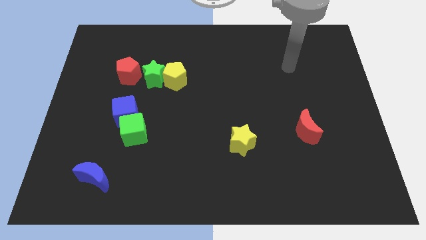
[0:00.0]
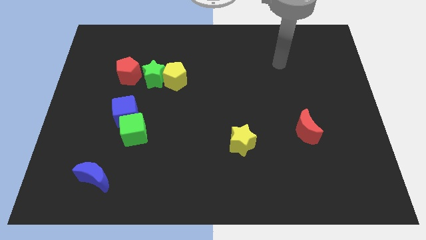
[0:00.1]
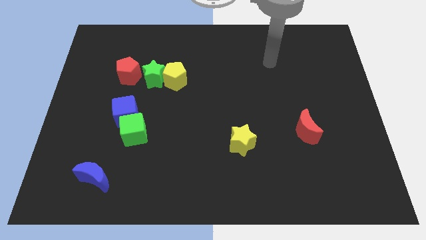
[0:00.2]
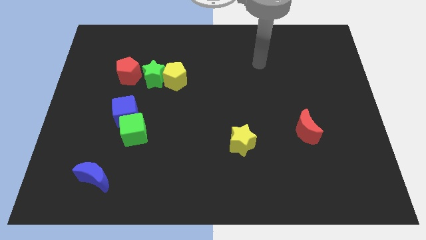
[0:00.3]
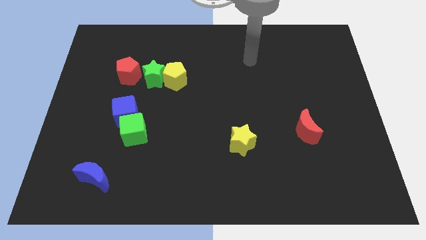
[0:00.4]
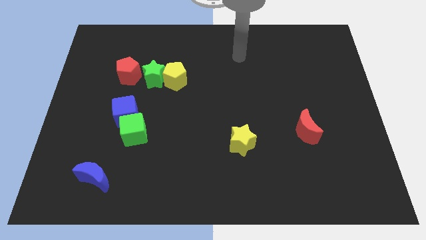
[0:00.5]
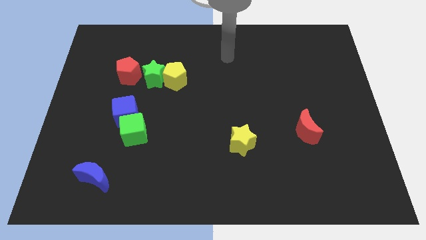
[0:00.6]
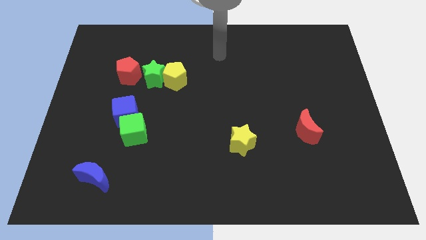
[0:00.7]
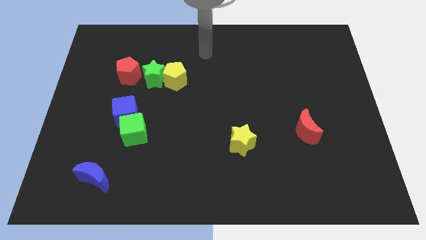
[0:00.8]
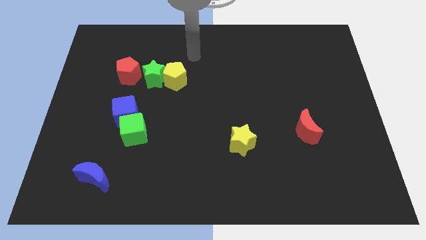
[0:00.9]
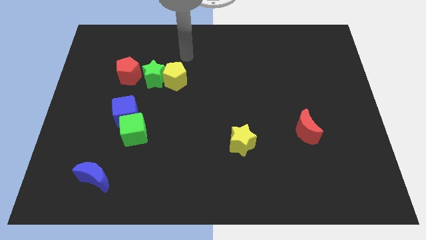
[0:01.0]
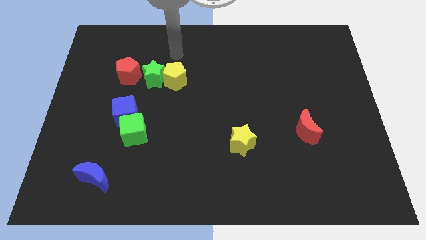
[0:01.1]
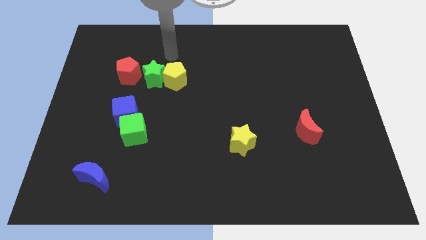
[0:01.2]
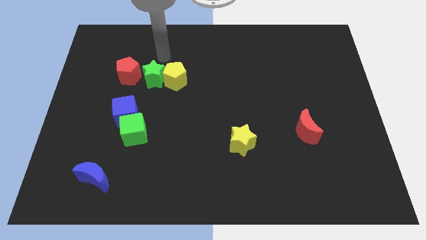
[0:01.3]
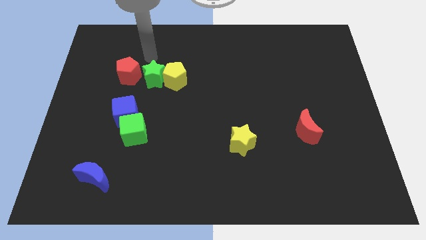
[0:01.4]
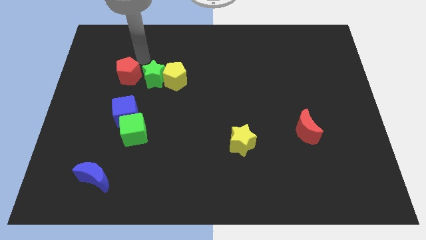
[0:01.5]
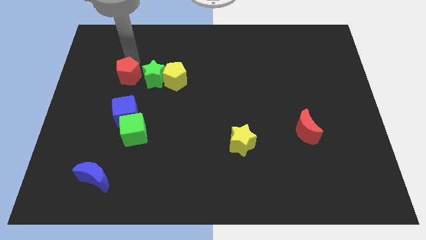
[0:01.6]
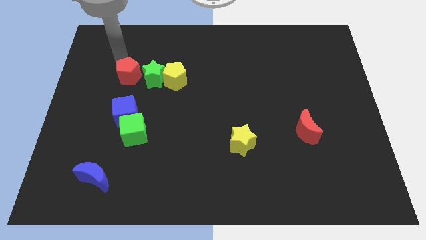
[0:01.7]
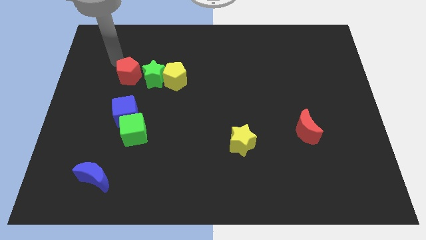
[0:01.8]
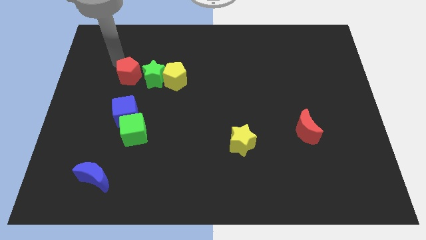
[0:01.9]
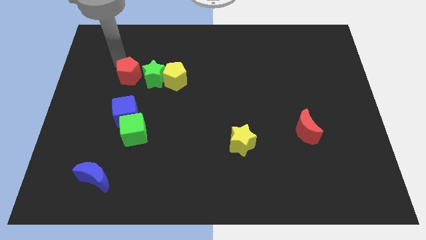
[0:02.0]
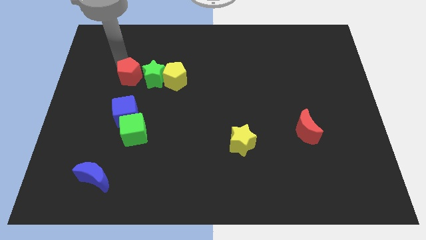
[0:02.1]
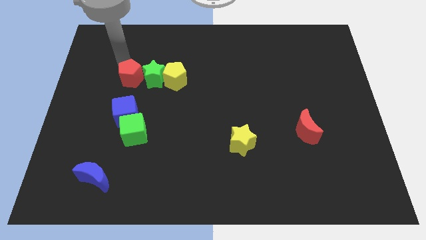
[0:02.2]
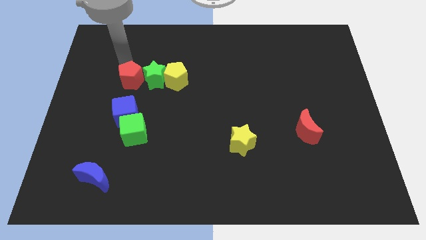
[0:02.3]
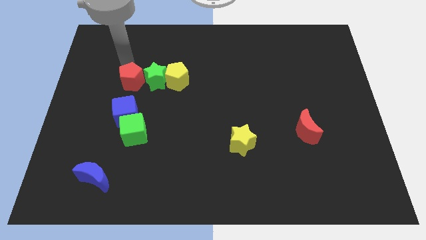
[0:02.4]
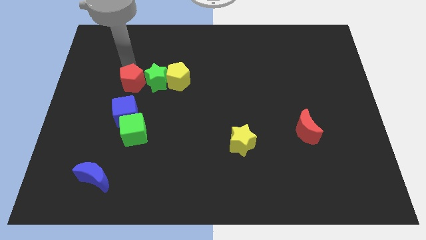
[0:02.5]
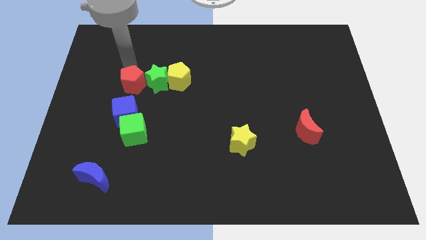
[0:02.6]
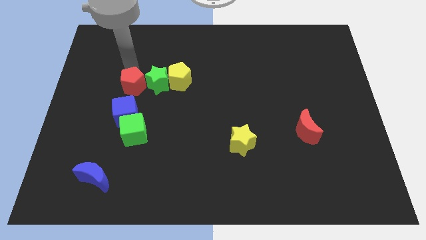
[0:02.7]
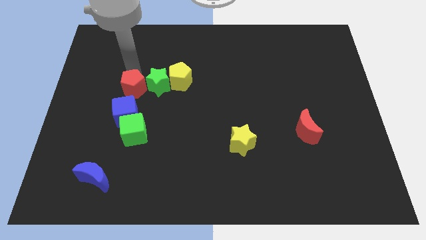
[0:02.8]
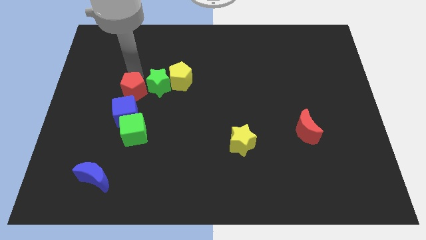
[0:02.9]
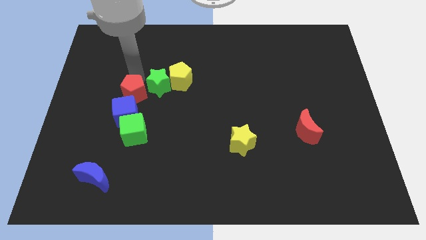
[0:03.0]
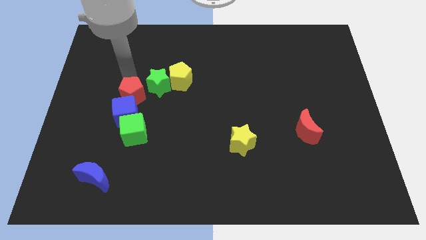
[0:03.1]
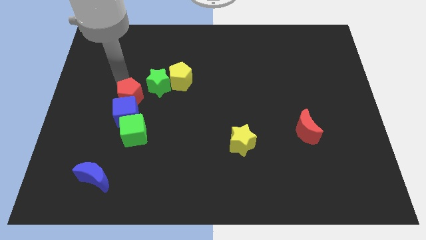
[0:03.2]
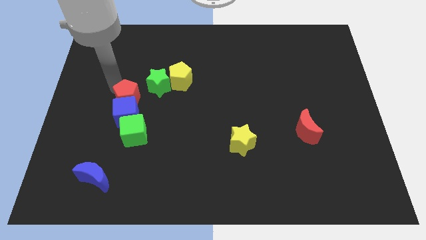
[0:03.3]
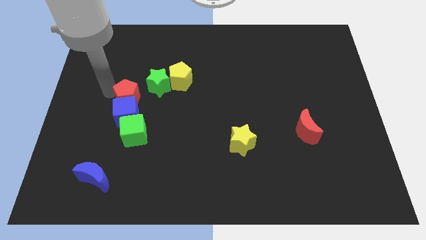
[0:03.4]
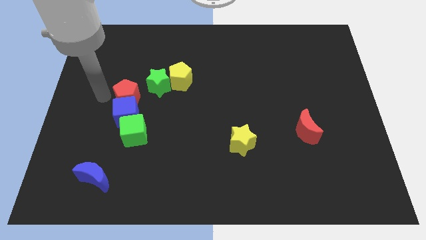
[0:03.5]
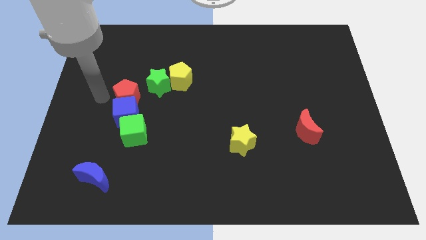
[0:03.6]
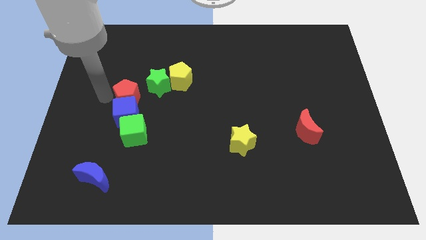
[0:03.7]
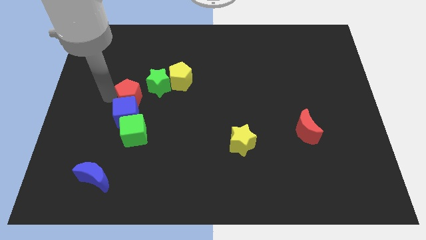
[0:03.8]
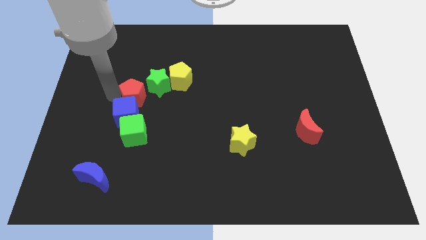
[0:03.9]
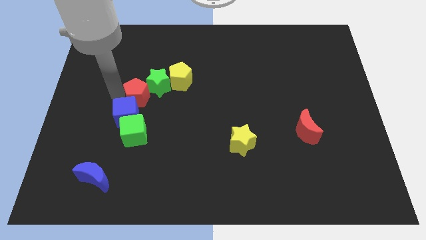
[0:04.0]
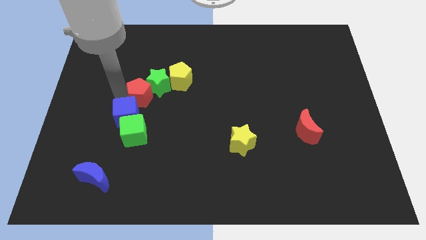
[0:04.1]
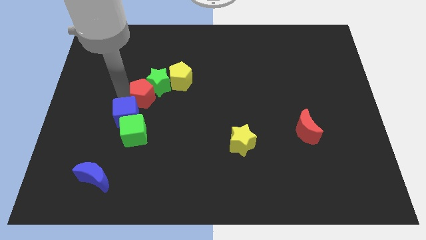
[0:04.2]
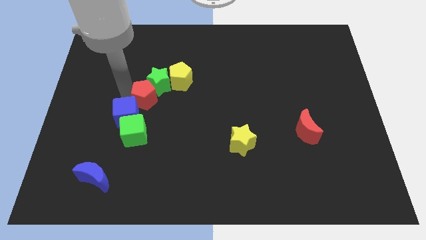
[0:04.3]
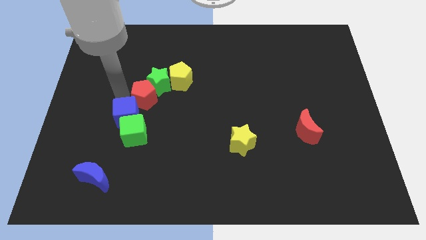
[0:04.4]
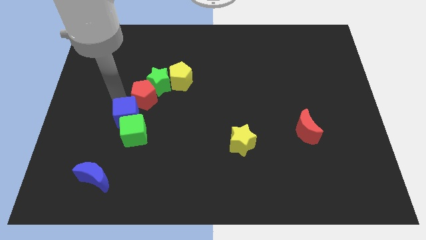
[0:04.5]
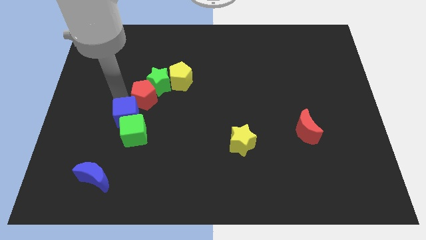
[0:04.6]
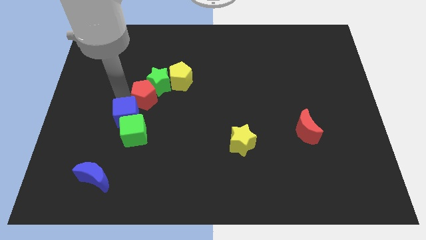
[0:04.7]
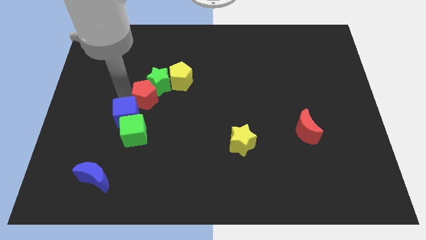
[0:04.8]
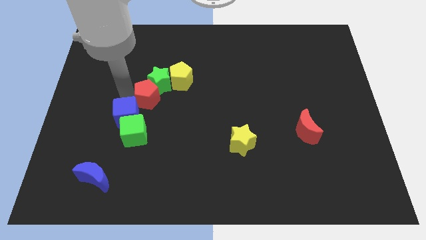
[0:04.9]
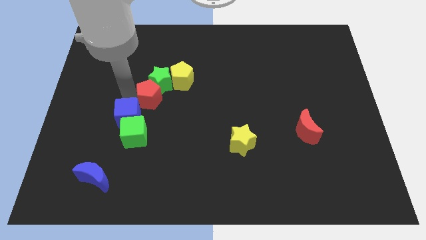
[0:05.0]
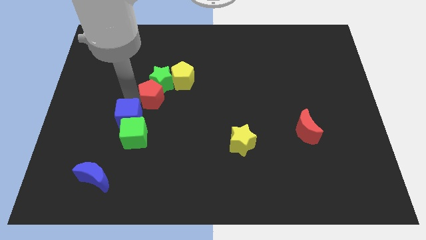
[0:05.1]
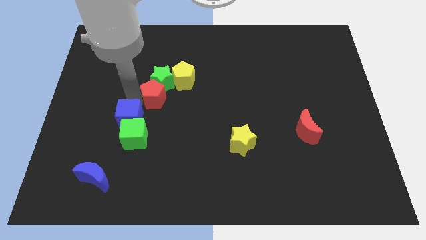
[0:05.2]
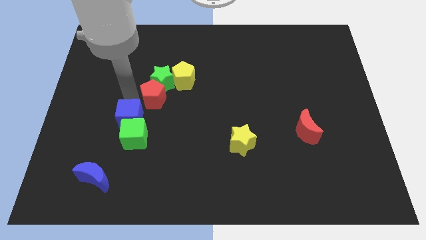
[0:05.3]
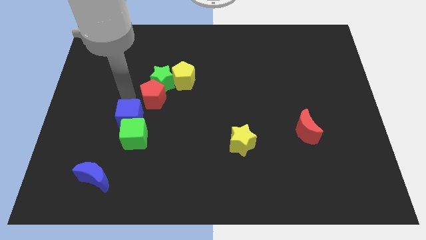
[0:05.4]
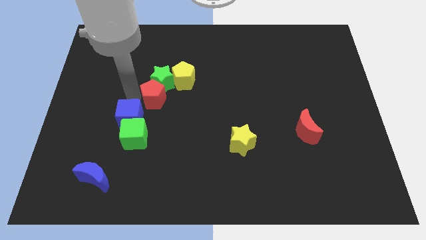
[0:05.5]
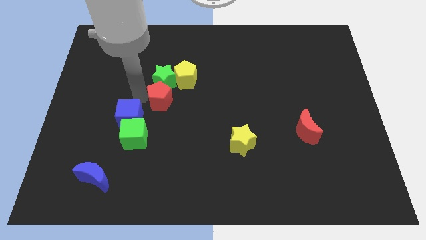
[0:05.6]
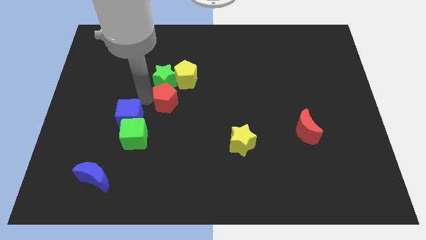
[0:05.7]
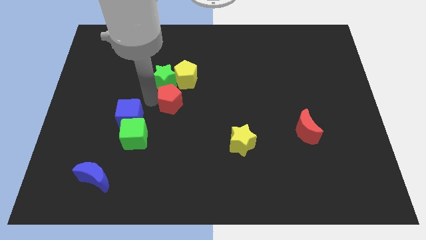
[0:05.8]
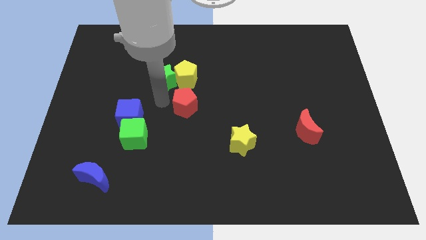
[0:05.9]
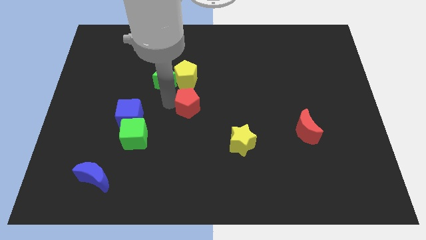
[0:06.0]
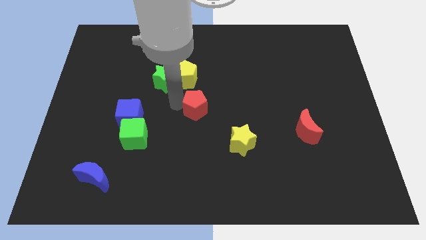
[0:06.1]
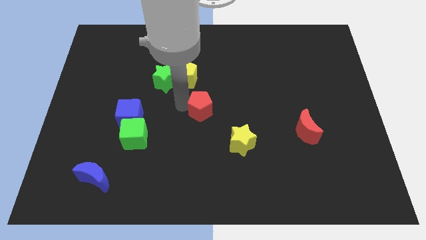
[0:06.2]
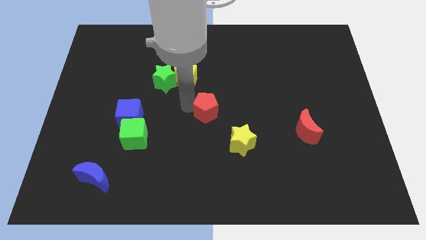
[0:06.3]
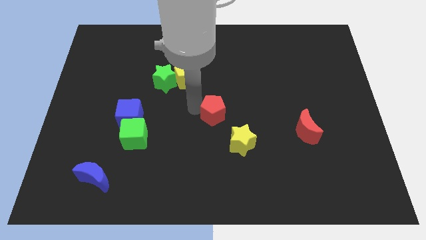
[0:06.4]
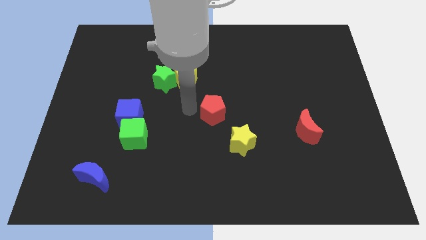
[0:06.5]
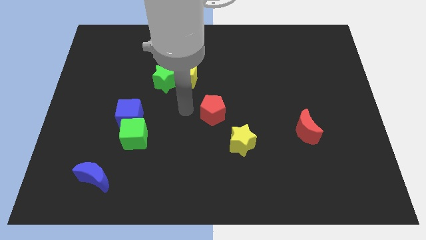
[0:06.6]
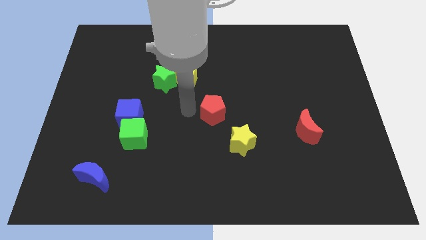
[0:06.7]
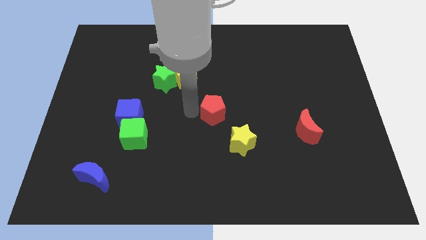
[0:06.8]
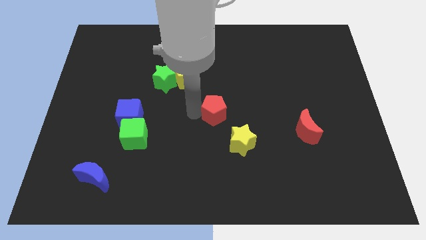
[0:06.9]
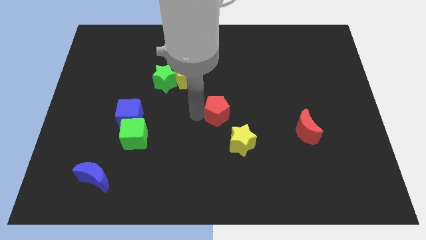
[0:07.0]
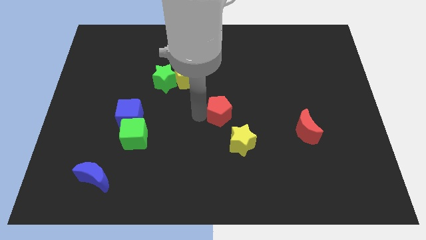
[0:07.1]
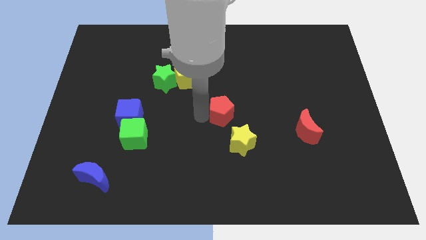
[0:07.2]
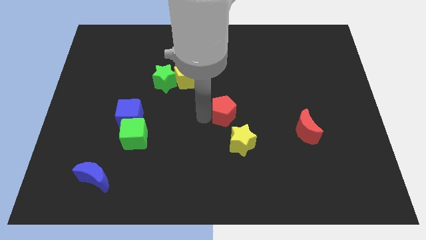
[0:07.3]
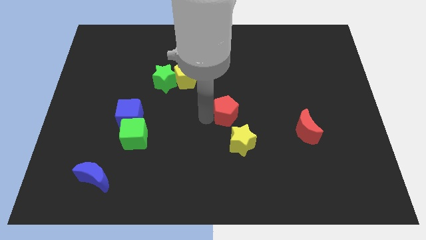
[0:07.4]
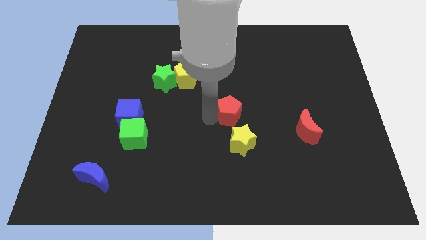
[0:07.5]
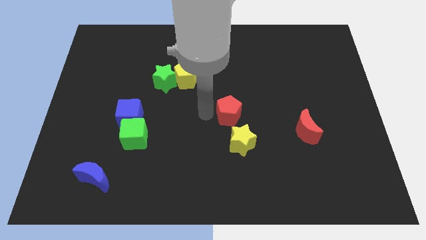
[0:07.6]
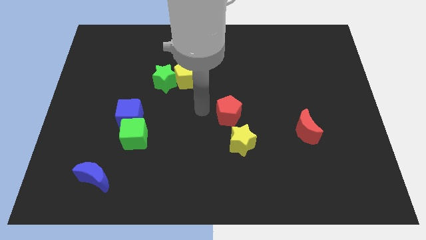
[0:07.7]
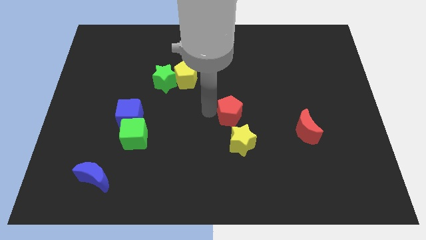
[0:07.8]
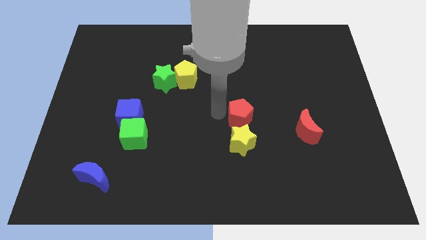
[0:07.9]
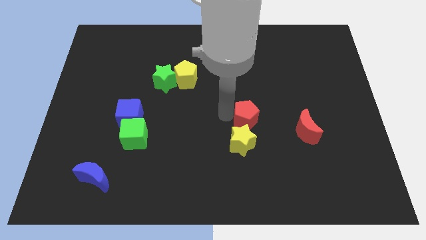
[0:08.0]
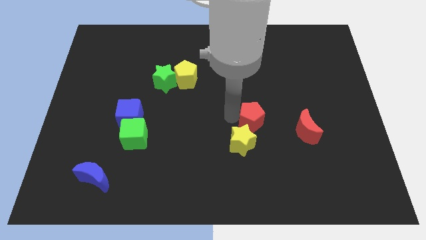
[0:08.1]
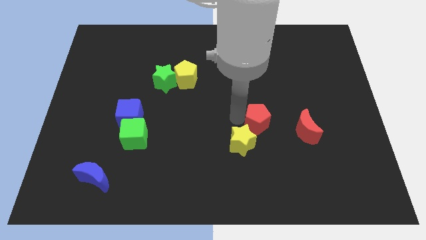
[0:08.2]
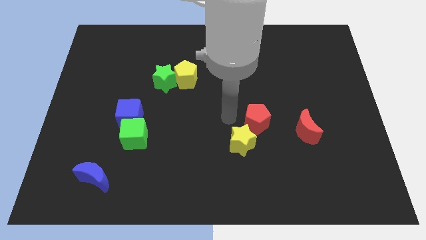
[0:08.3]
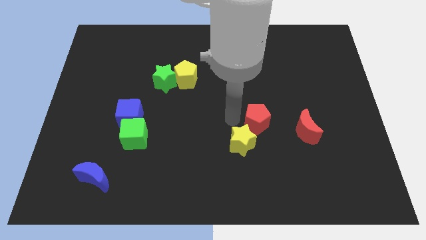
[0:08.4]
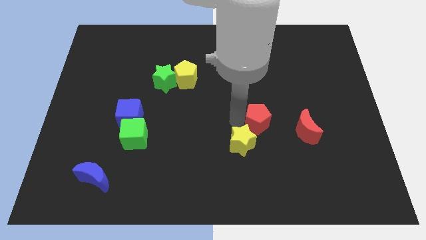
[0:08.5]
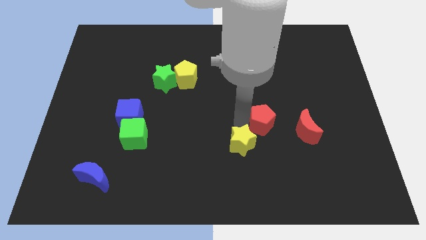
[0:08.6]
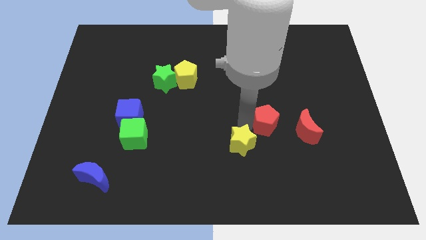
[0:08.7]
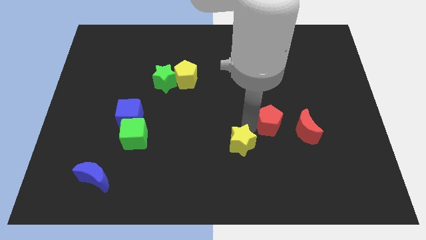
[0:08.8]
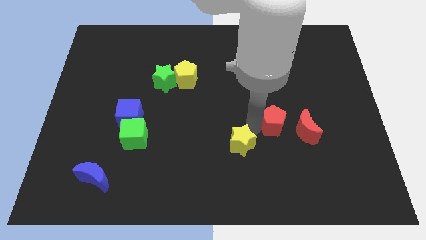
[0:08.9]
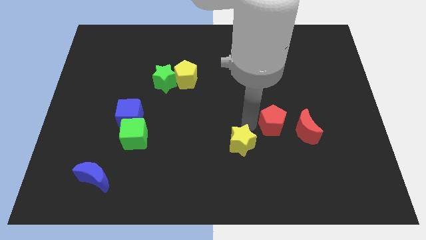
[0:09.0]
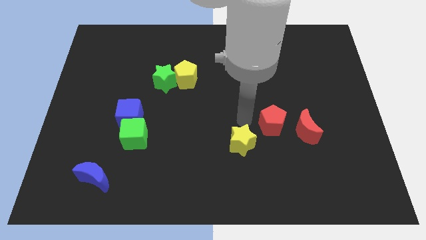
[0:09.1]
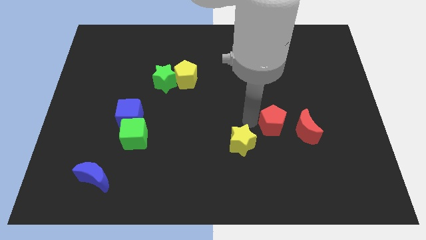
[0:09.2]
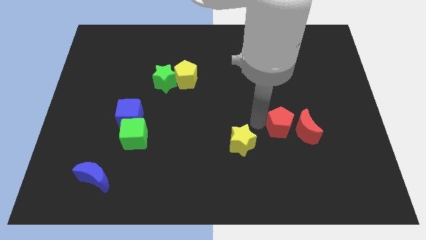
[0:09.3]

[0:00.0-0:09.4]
move the red pentagon to the red moon
